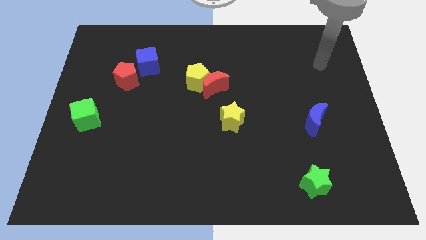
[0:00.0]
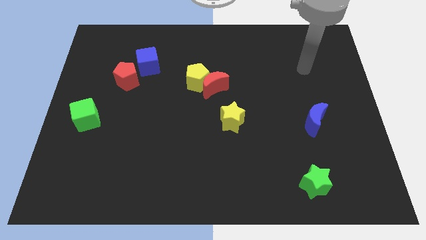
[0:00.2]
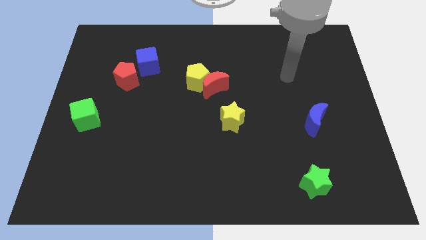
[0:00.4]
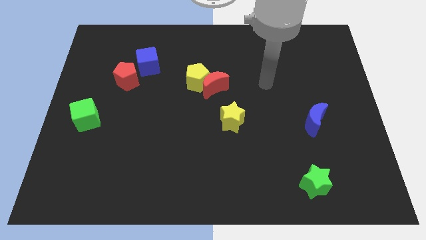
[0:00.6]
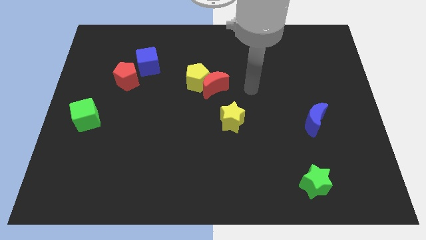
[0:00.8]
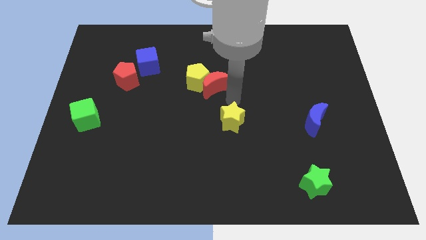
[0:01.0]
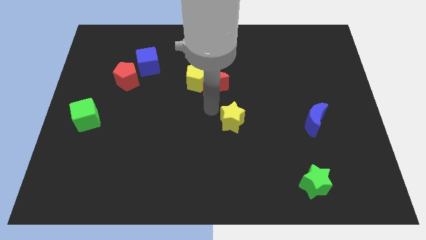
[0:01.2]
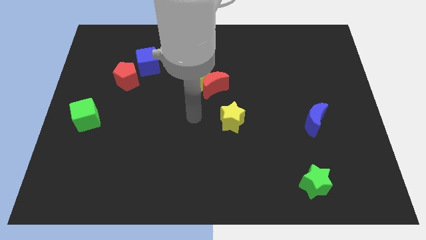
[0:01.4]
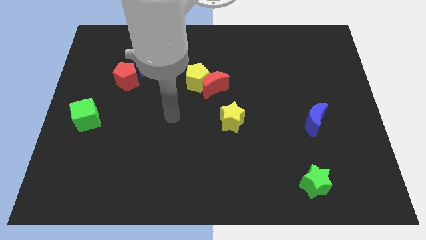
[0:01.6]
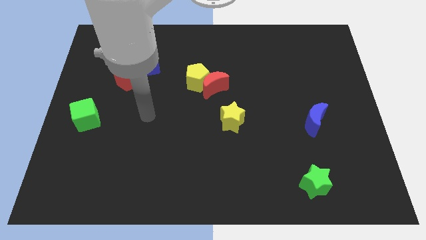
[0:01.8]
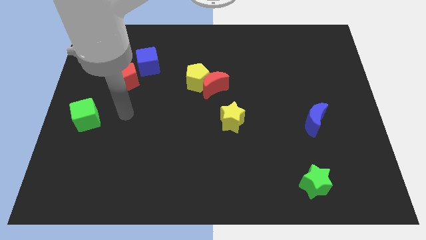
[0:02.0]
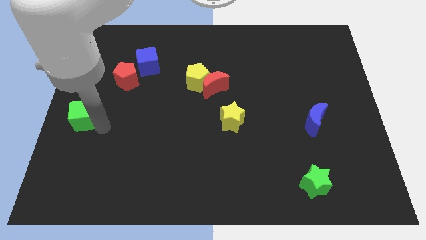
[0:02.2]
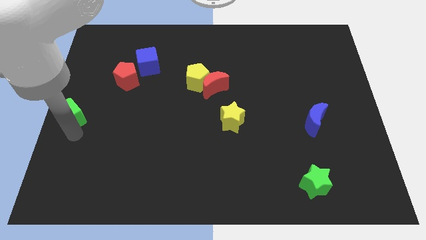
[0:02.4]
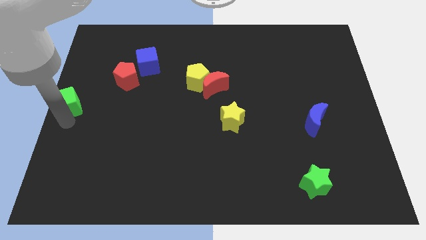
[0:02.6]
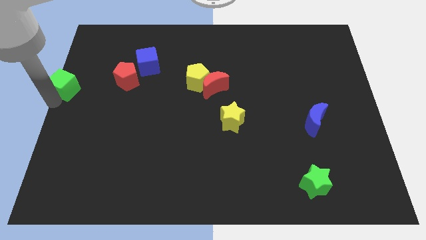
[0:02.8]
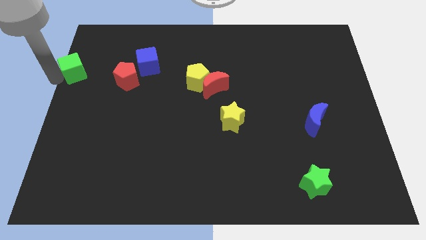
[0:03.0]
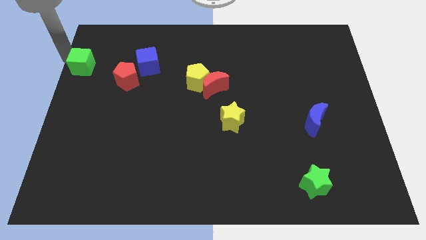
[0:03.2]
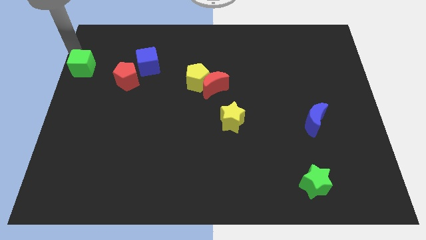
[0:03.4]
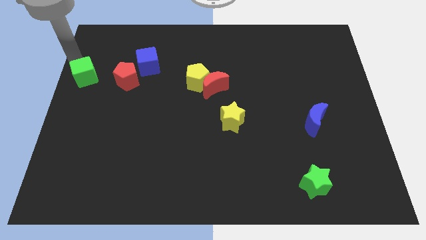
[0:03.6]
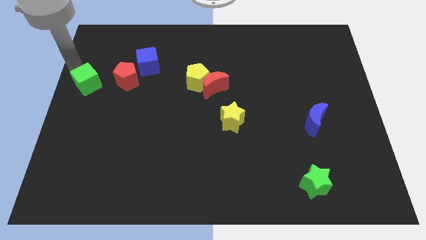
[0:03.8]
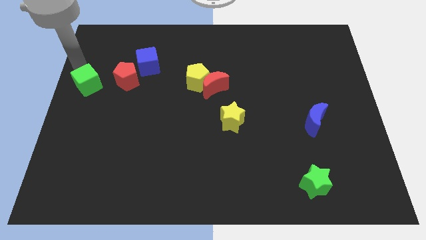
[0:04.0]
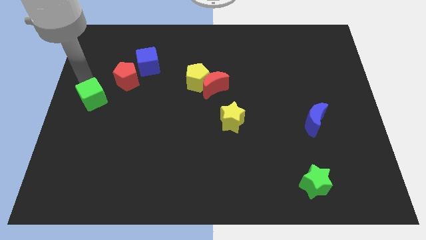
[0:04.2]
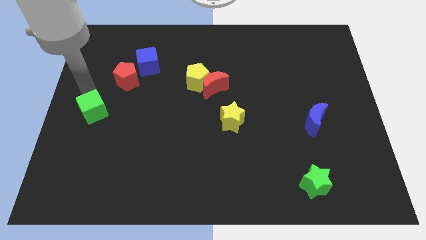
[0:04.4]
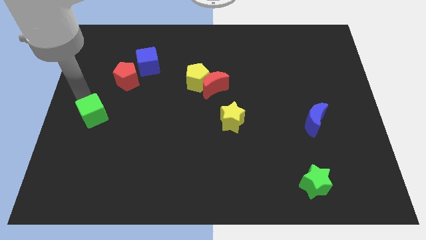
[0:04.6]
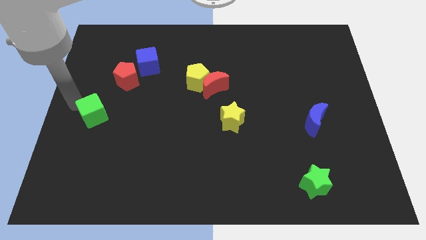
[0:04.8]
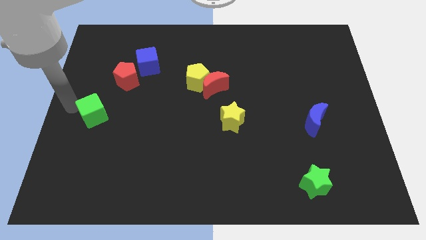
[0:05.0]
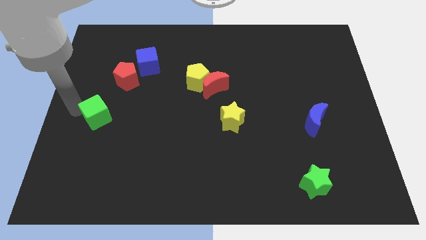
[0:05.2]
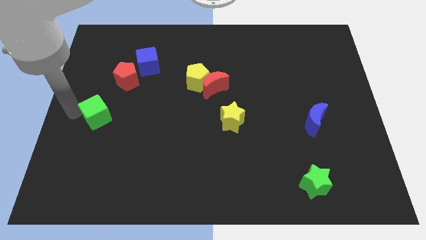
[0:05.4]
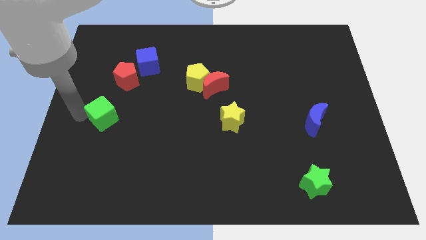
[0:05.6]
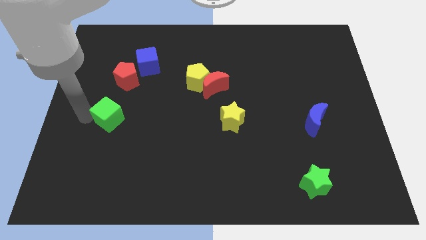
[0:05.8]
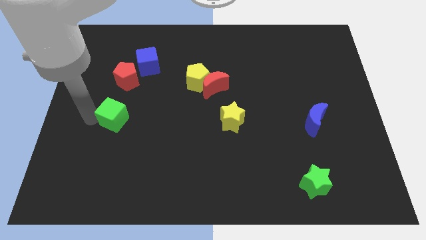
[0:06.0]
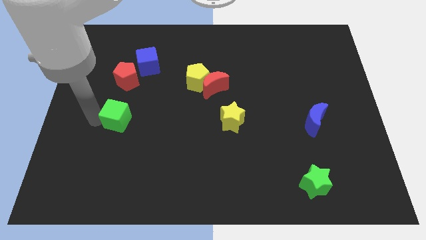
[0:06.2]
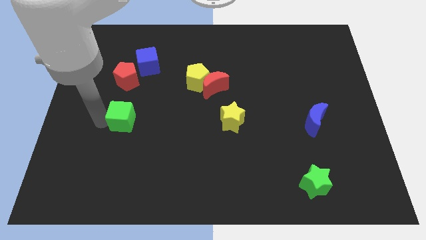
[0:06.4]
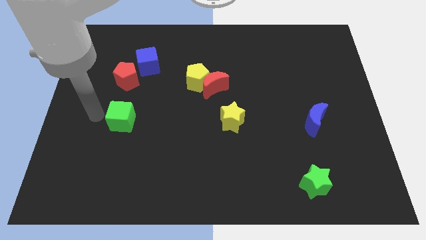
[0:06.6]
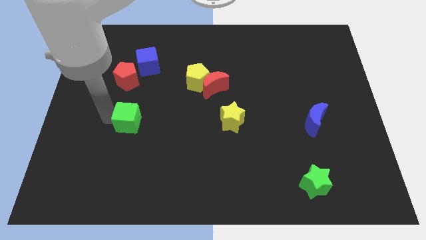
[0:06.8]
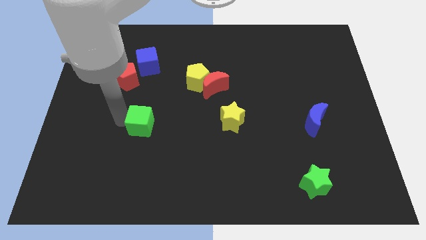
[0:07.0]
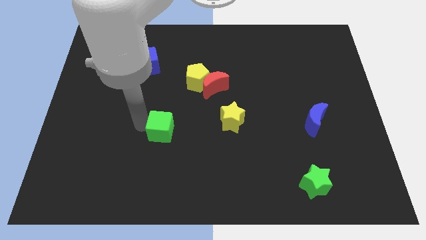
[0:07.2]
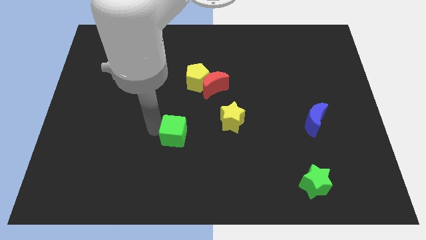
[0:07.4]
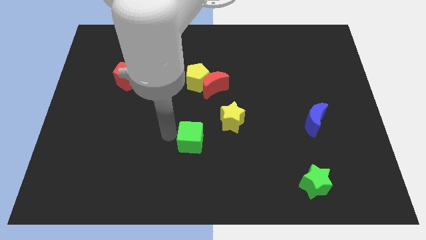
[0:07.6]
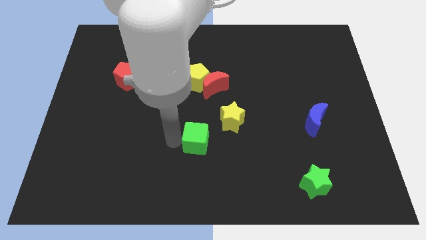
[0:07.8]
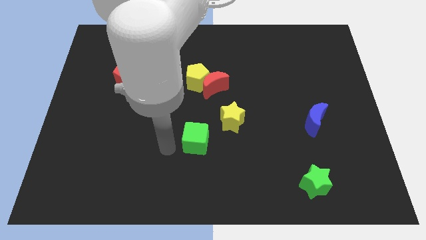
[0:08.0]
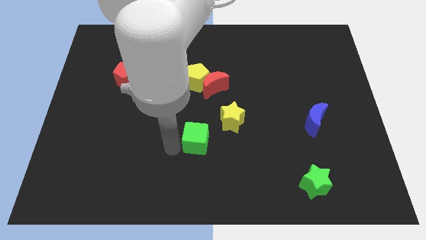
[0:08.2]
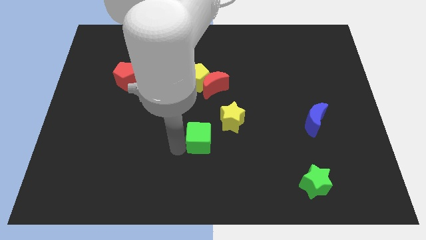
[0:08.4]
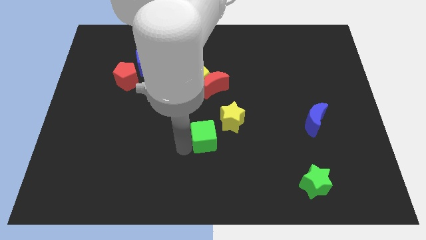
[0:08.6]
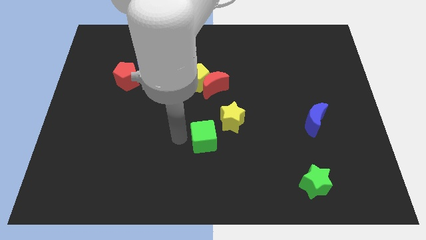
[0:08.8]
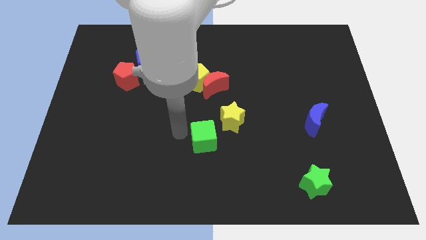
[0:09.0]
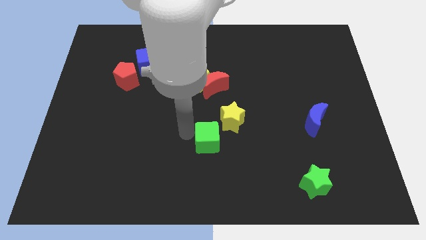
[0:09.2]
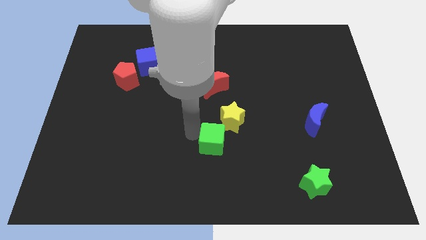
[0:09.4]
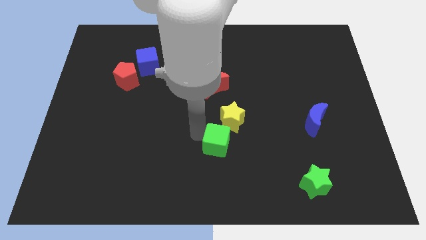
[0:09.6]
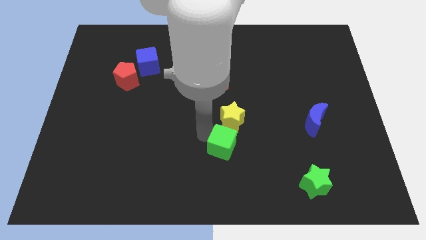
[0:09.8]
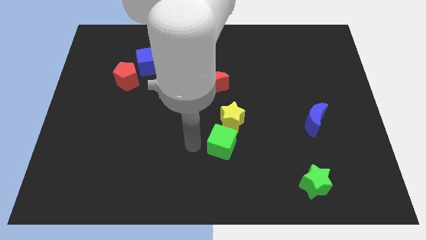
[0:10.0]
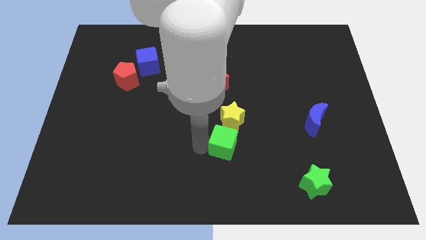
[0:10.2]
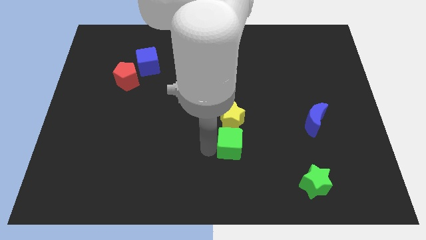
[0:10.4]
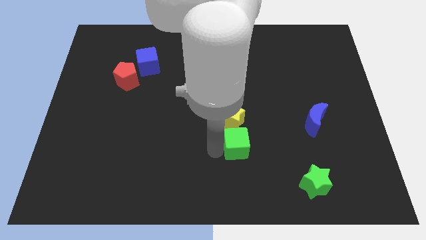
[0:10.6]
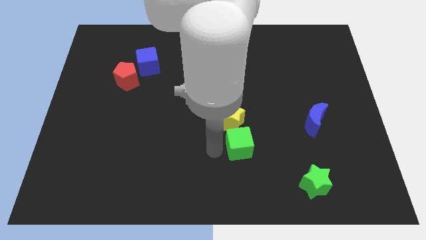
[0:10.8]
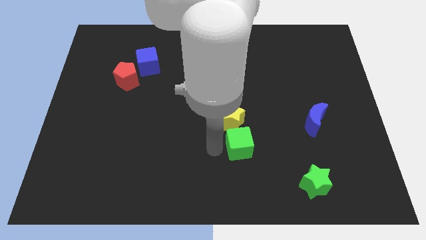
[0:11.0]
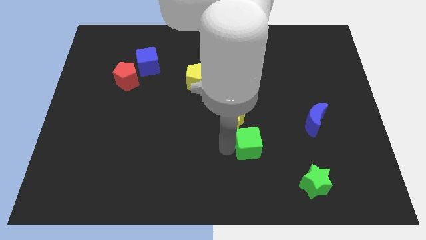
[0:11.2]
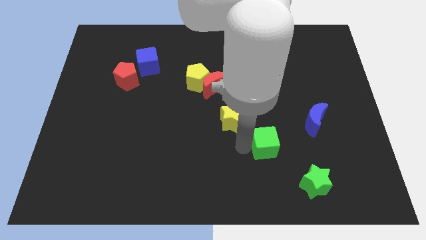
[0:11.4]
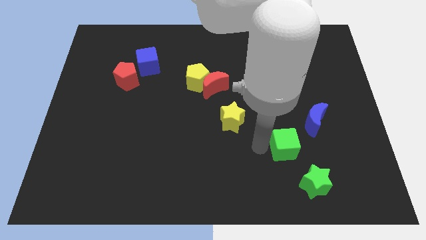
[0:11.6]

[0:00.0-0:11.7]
slide the green cube to the top side of the green star
